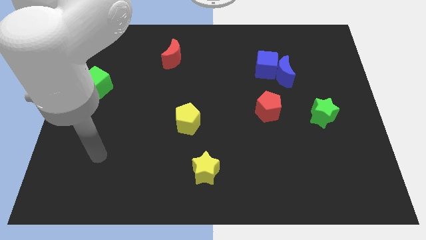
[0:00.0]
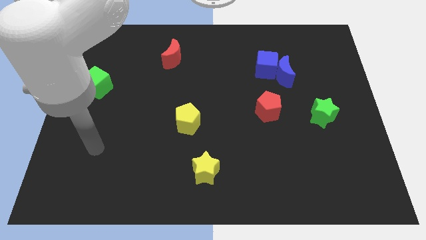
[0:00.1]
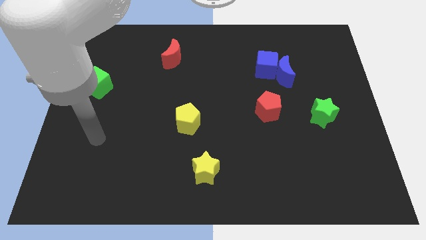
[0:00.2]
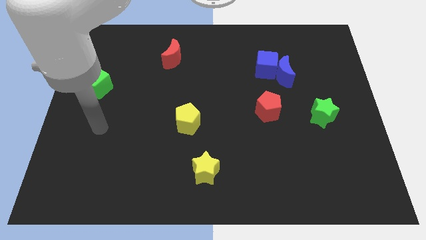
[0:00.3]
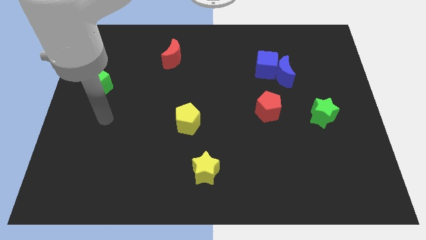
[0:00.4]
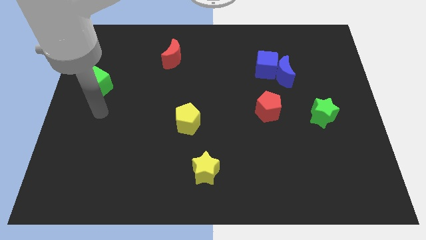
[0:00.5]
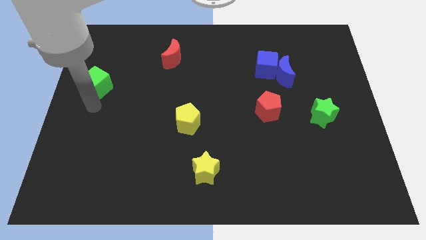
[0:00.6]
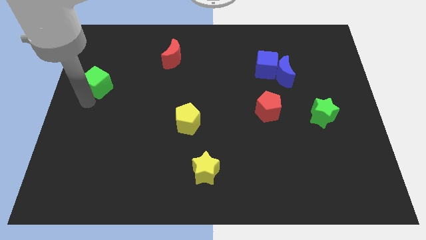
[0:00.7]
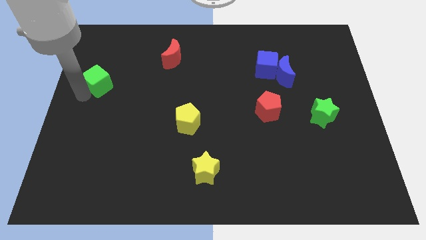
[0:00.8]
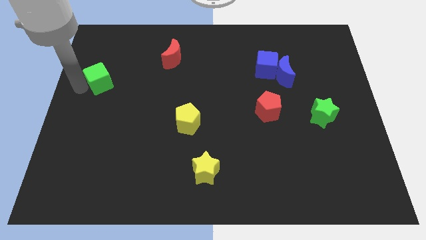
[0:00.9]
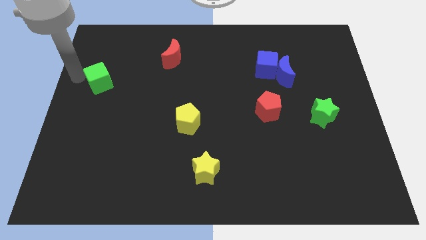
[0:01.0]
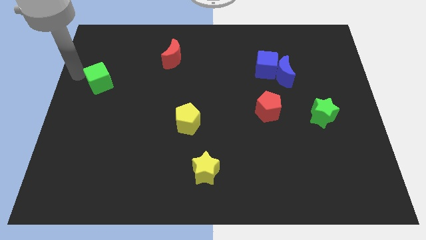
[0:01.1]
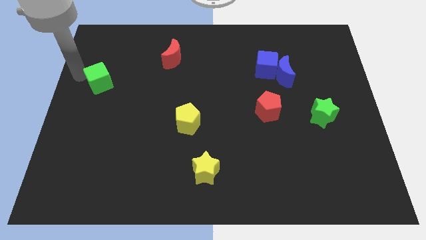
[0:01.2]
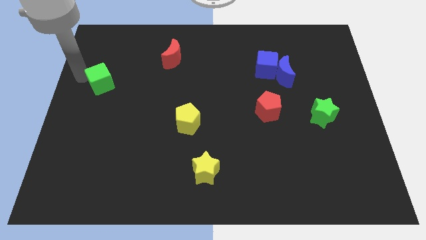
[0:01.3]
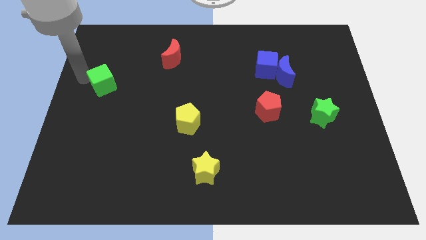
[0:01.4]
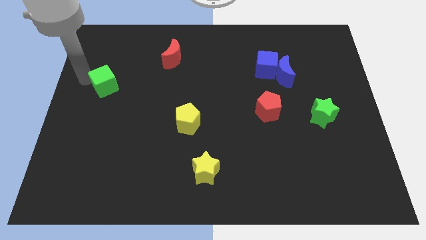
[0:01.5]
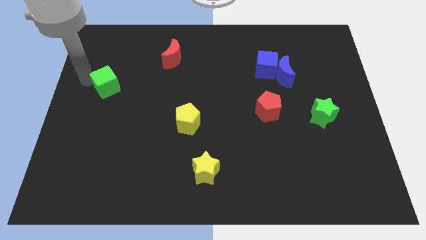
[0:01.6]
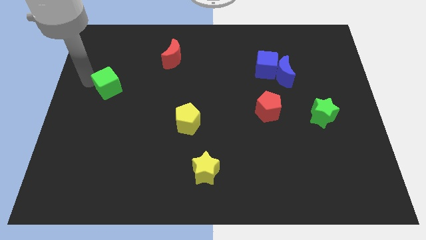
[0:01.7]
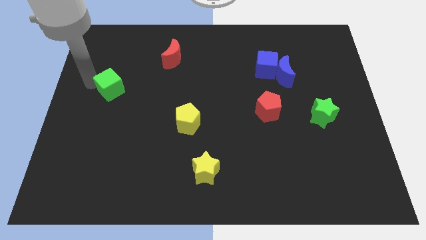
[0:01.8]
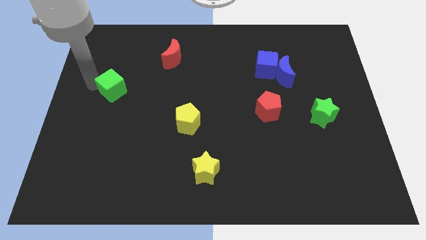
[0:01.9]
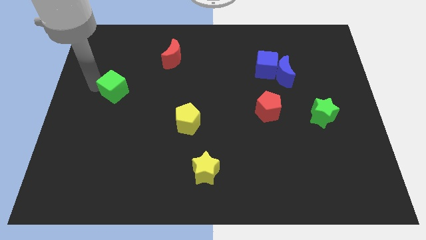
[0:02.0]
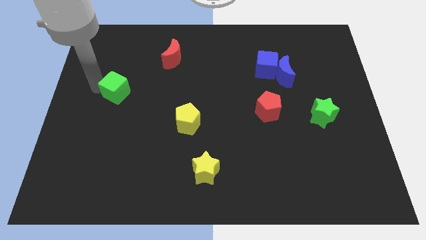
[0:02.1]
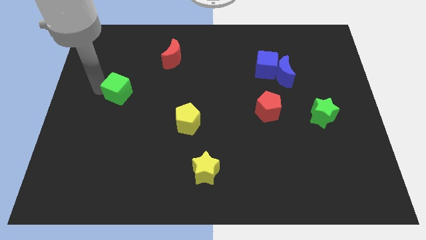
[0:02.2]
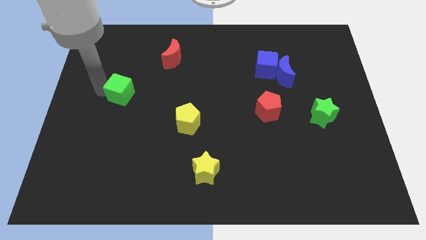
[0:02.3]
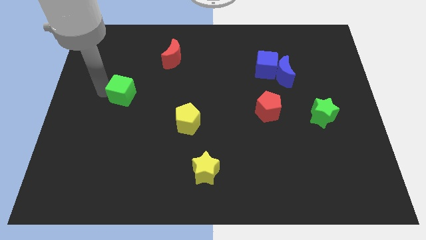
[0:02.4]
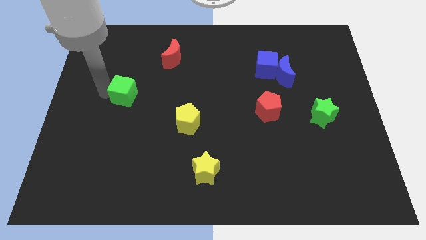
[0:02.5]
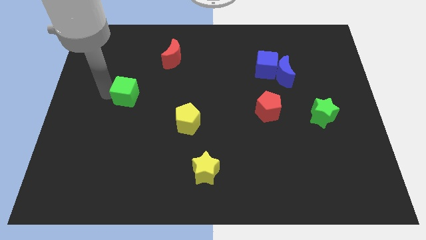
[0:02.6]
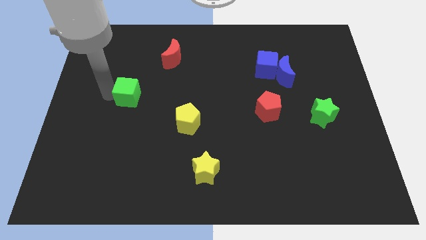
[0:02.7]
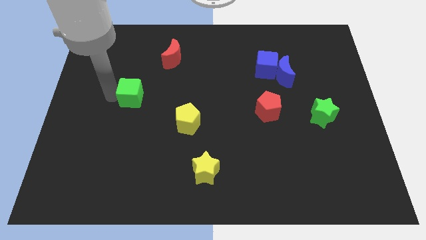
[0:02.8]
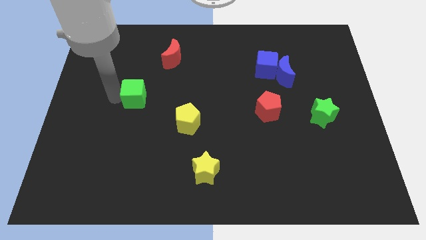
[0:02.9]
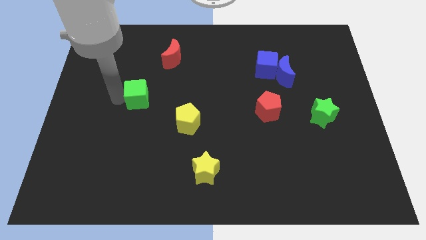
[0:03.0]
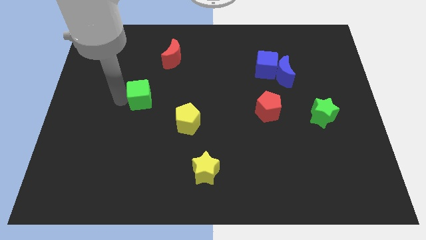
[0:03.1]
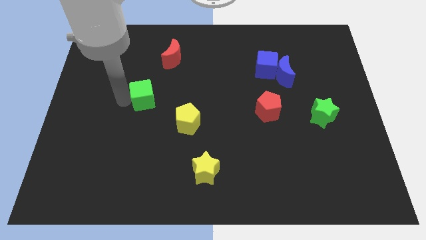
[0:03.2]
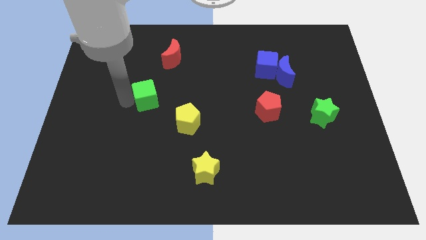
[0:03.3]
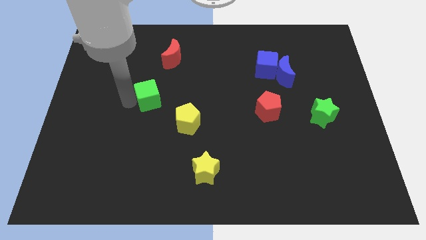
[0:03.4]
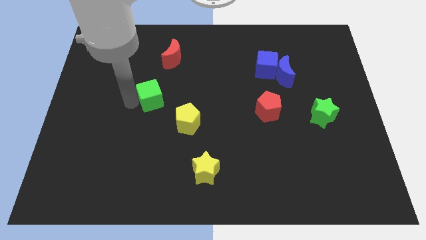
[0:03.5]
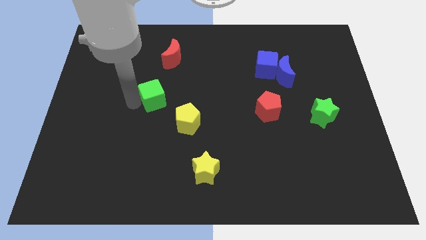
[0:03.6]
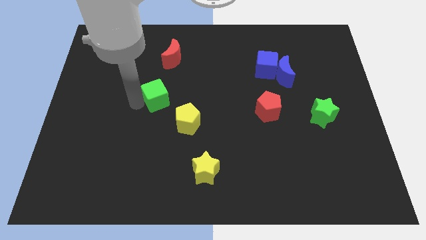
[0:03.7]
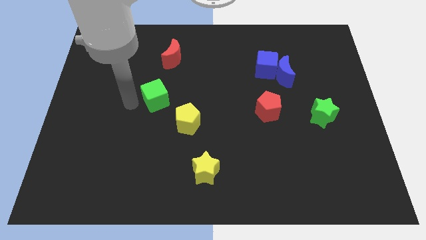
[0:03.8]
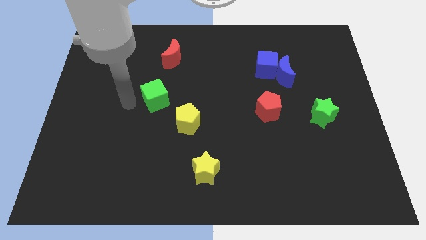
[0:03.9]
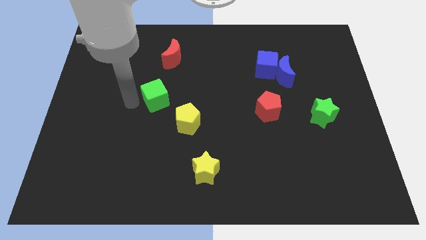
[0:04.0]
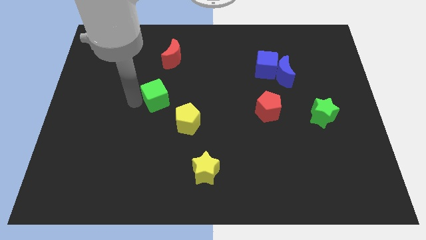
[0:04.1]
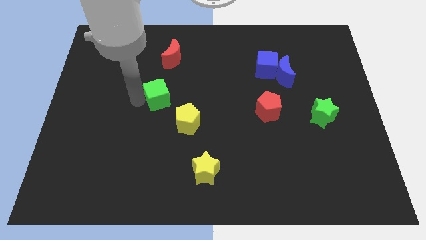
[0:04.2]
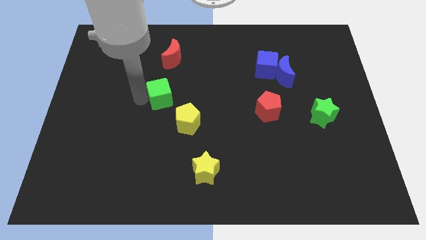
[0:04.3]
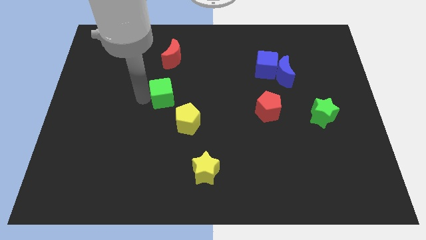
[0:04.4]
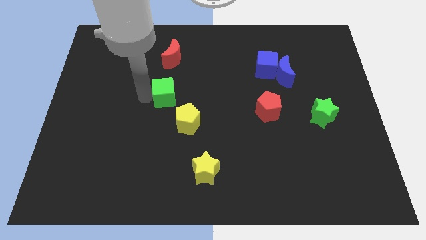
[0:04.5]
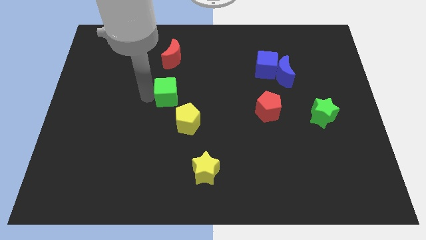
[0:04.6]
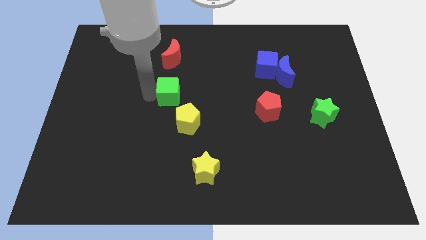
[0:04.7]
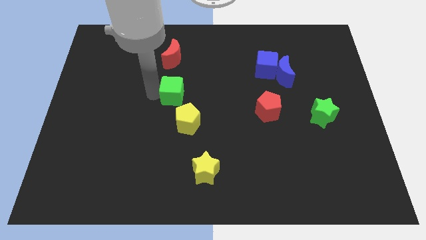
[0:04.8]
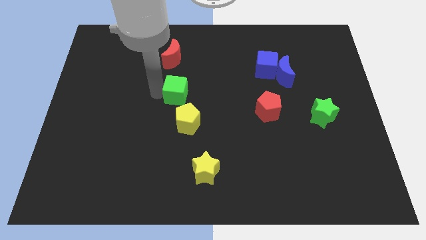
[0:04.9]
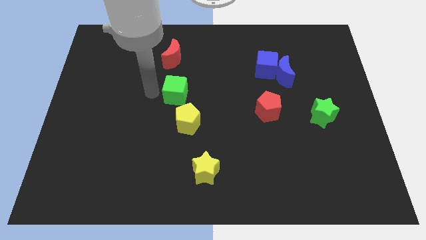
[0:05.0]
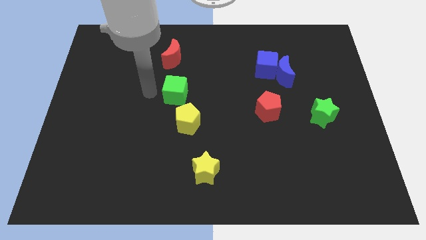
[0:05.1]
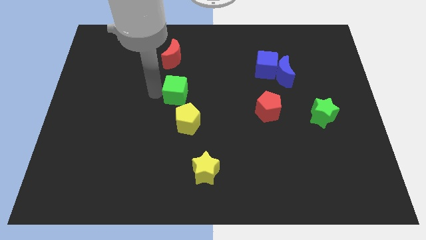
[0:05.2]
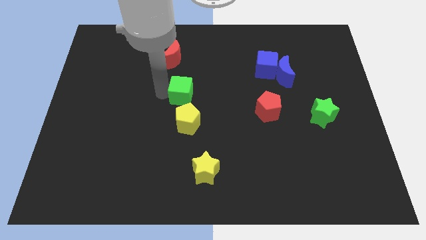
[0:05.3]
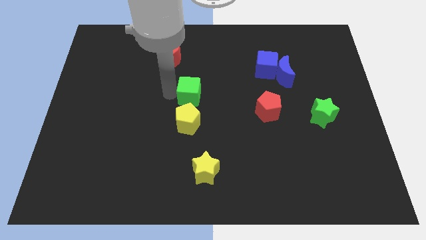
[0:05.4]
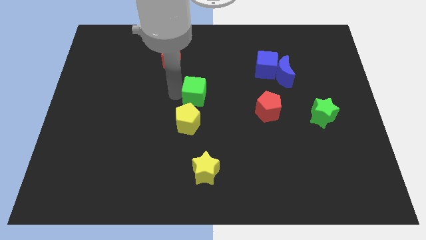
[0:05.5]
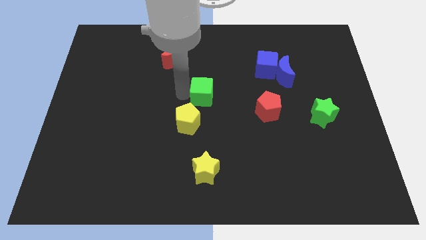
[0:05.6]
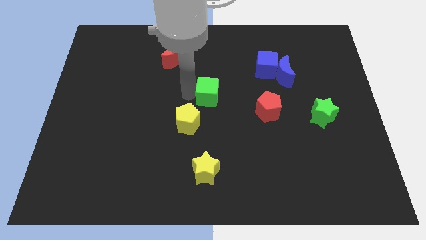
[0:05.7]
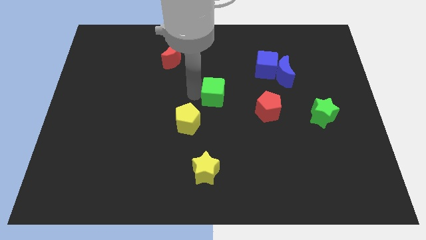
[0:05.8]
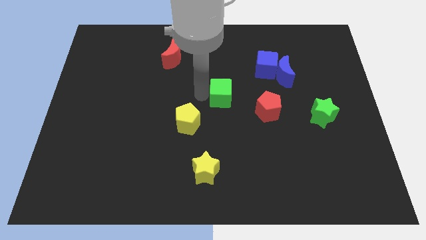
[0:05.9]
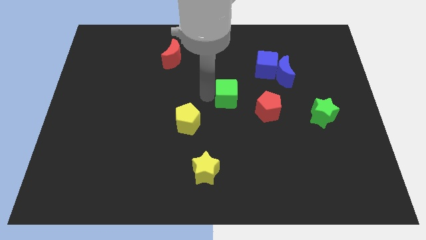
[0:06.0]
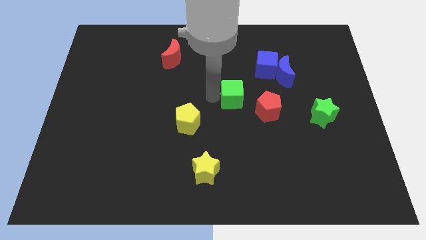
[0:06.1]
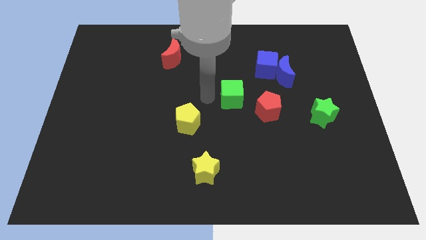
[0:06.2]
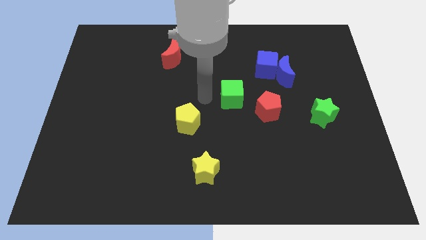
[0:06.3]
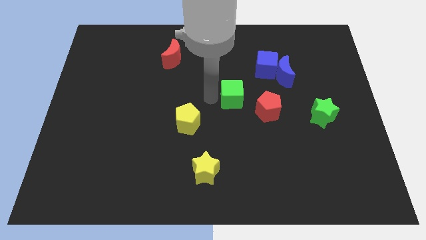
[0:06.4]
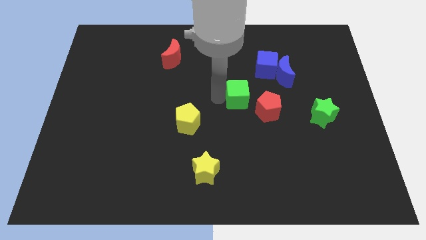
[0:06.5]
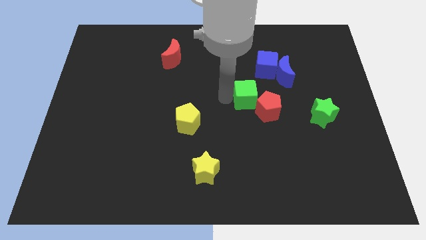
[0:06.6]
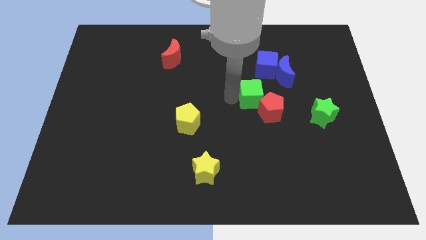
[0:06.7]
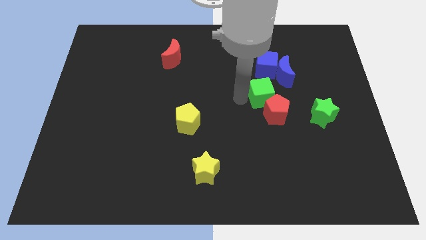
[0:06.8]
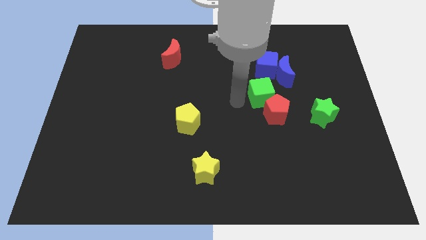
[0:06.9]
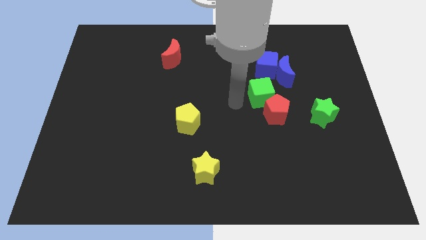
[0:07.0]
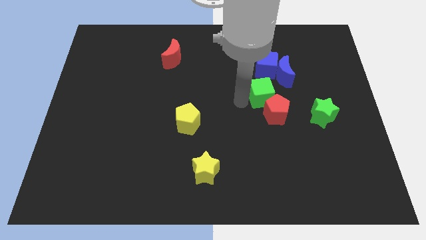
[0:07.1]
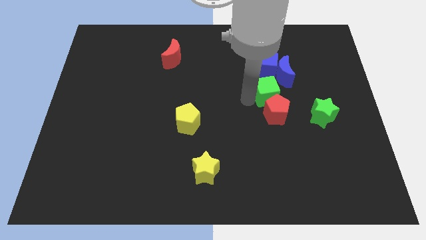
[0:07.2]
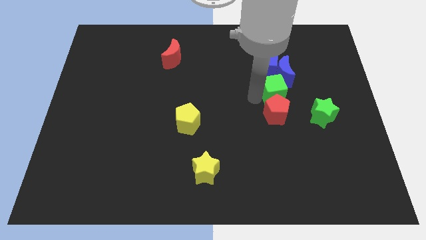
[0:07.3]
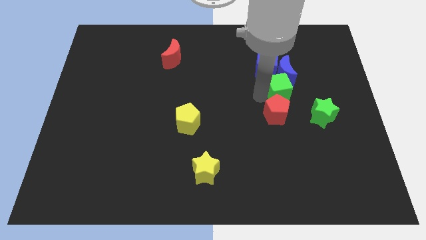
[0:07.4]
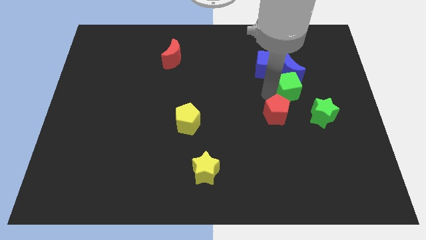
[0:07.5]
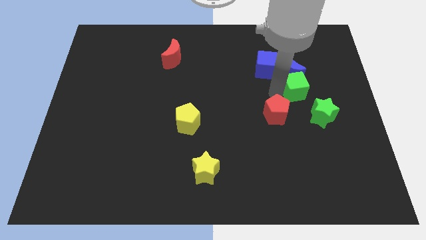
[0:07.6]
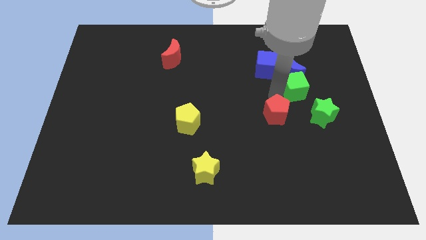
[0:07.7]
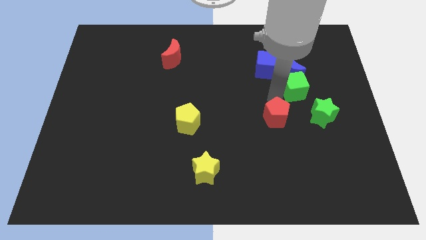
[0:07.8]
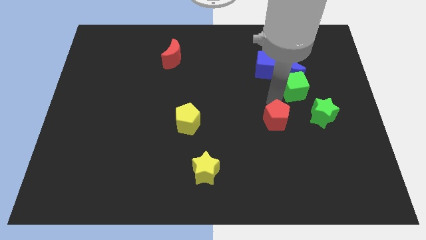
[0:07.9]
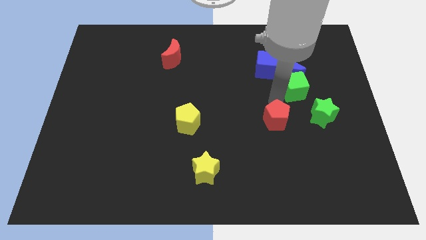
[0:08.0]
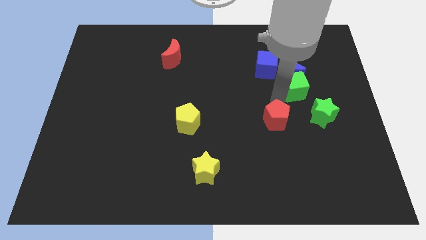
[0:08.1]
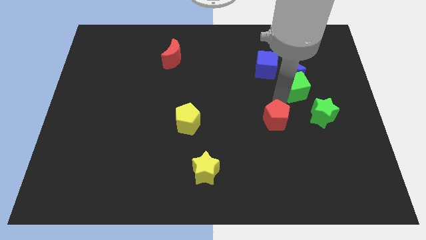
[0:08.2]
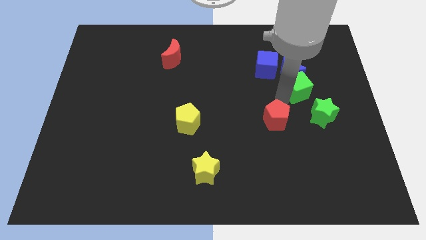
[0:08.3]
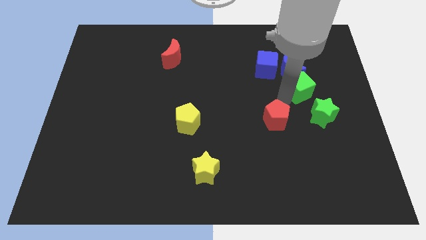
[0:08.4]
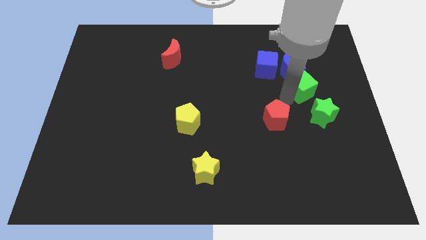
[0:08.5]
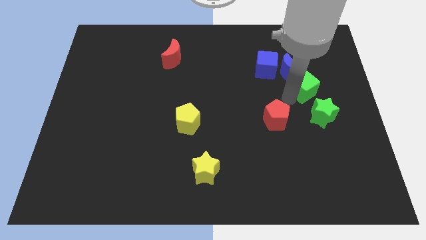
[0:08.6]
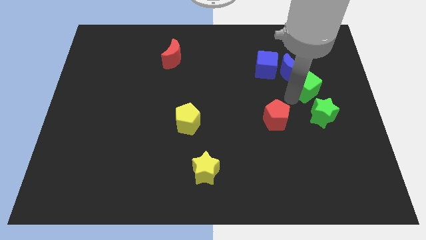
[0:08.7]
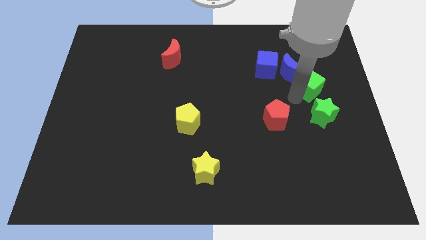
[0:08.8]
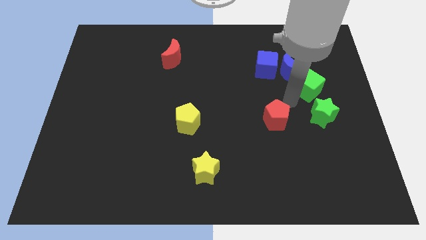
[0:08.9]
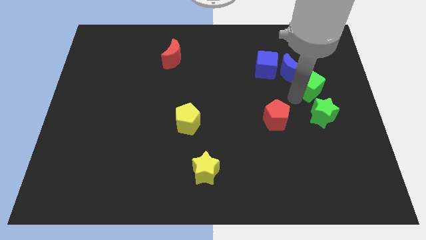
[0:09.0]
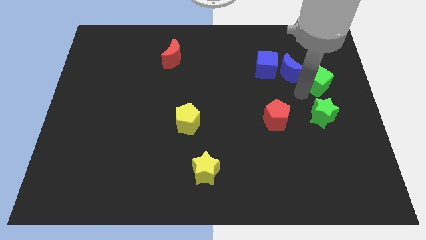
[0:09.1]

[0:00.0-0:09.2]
move the green cube to the right side of the blue moon
